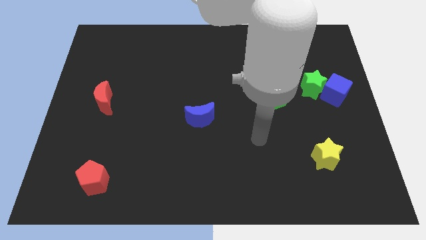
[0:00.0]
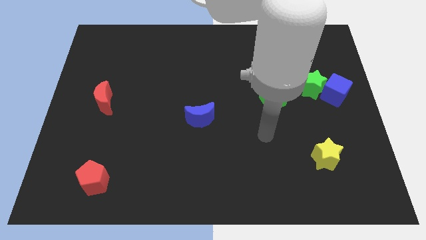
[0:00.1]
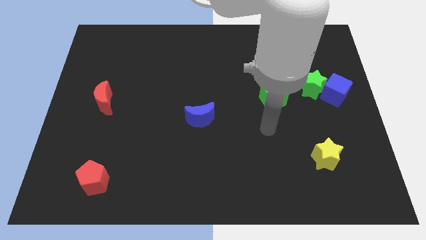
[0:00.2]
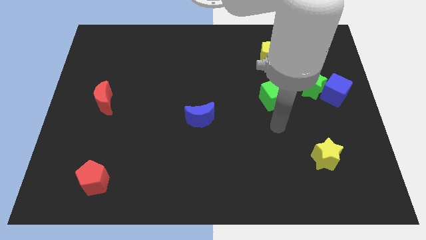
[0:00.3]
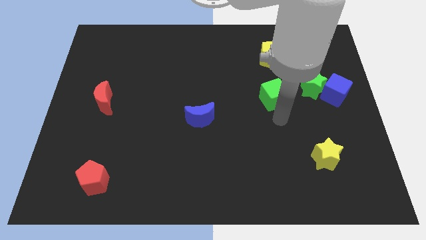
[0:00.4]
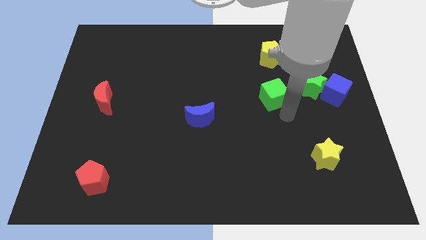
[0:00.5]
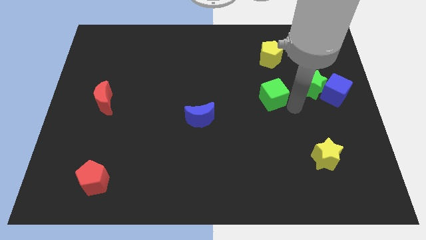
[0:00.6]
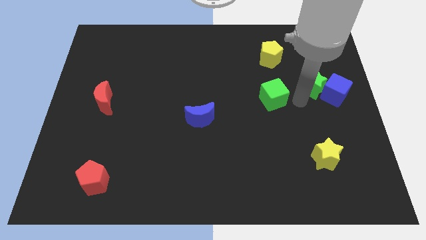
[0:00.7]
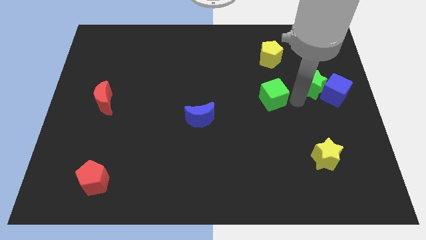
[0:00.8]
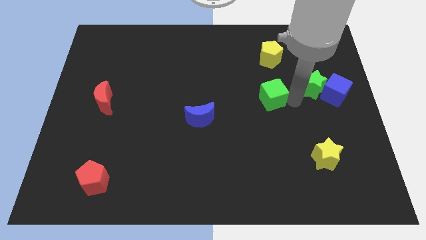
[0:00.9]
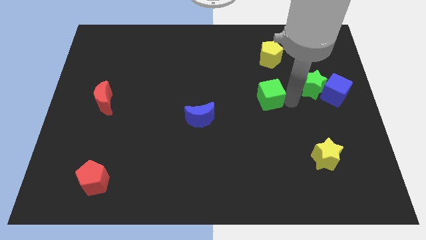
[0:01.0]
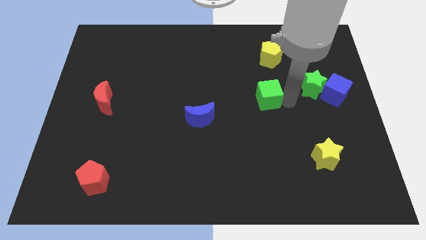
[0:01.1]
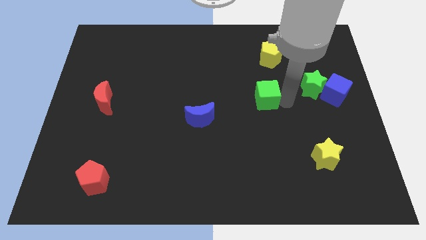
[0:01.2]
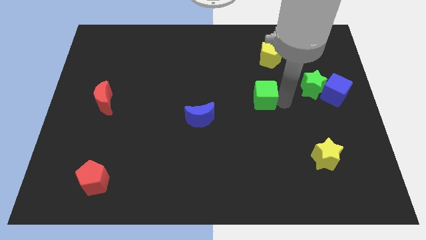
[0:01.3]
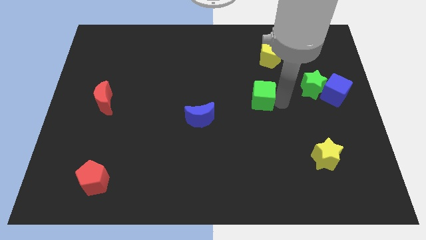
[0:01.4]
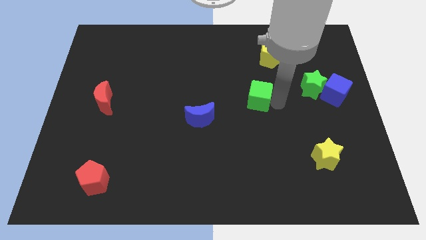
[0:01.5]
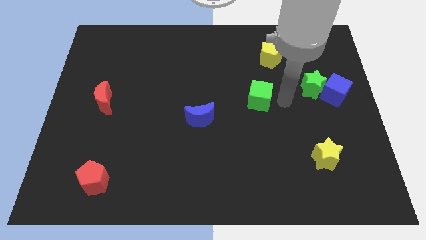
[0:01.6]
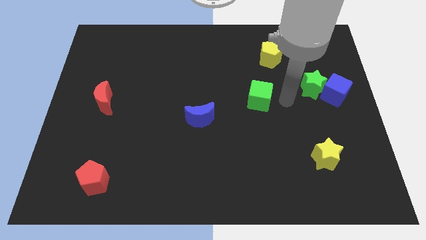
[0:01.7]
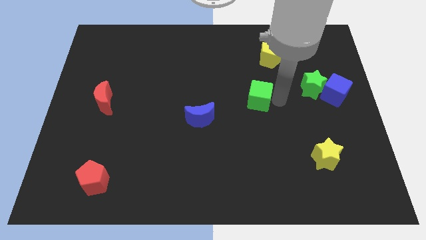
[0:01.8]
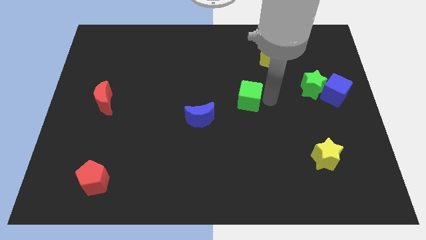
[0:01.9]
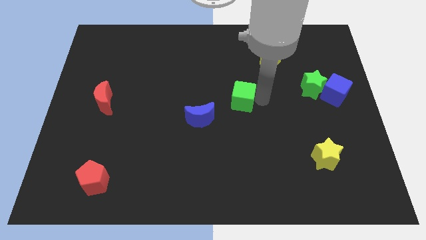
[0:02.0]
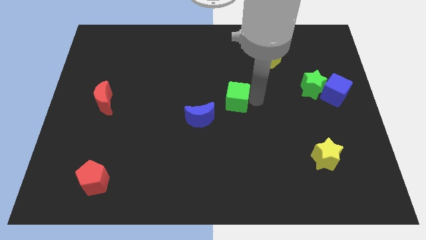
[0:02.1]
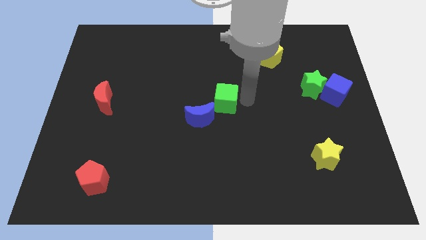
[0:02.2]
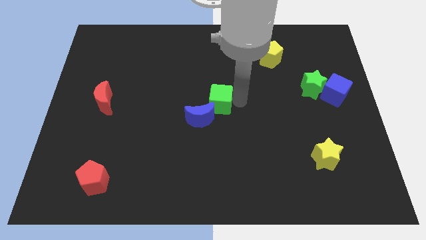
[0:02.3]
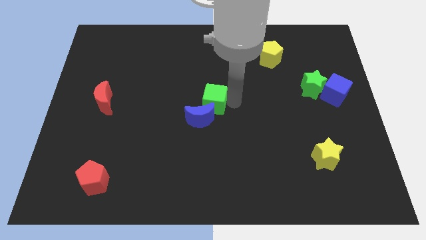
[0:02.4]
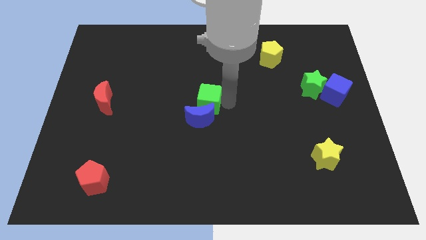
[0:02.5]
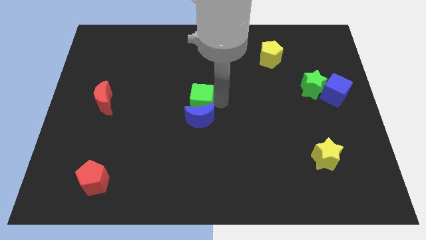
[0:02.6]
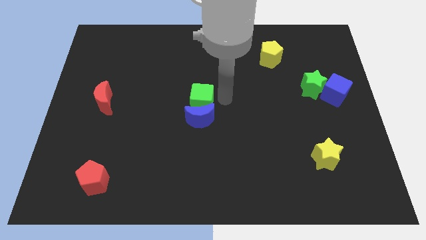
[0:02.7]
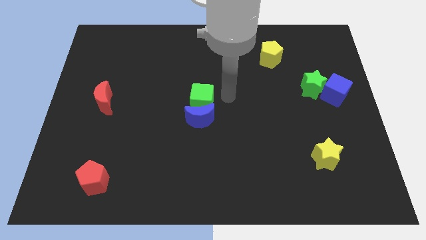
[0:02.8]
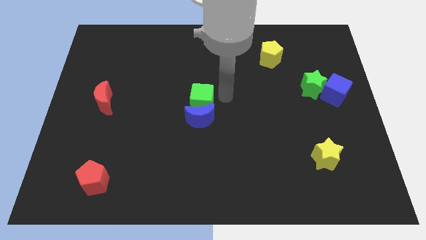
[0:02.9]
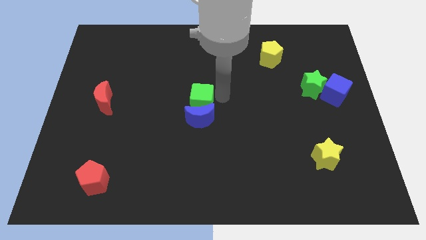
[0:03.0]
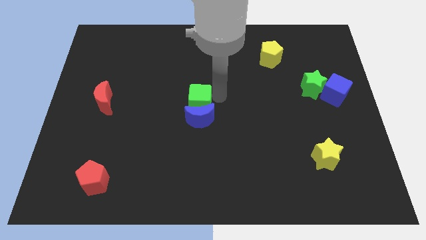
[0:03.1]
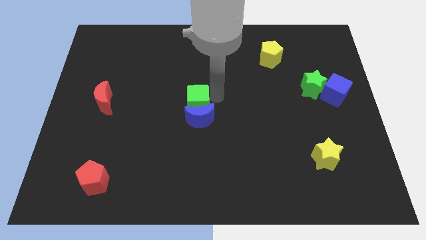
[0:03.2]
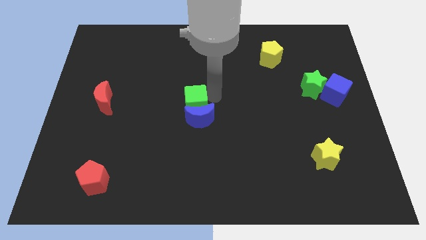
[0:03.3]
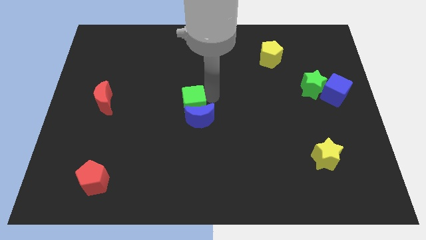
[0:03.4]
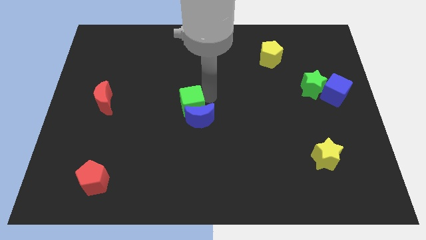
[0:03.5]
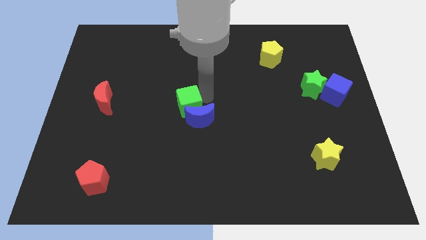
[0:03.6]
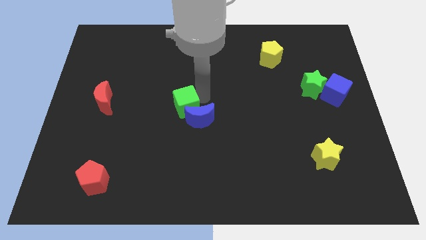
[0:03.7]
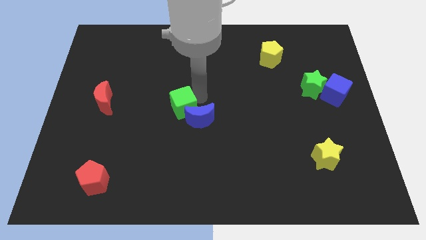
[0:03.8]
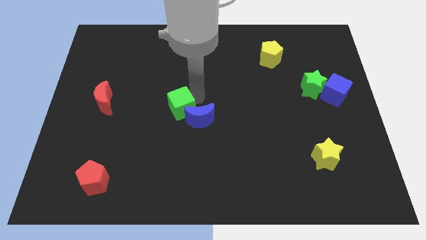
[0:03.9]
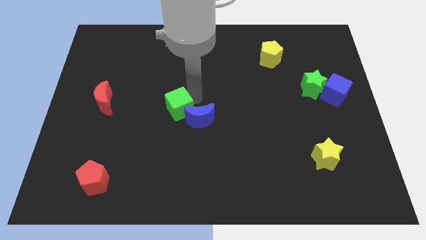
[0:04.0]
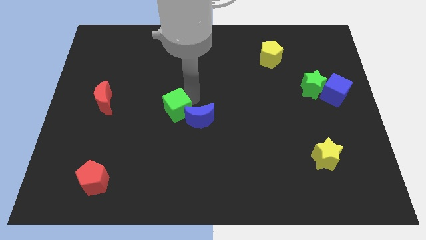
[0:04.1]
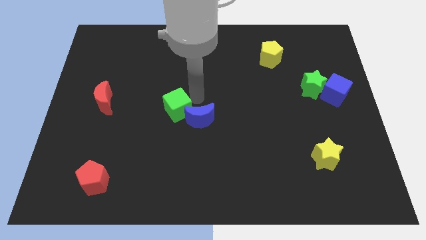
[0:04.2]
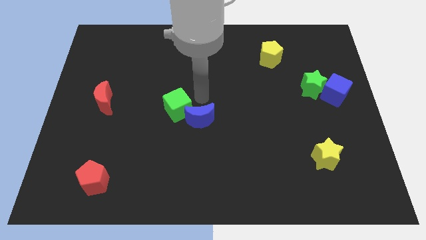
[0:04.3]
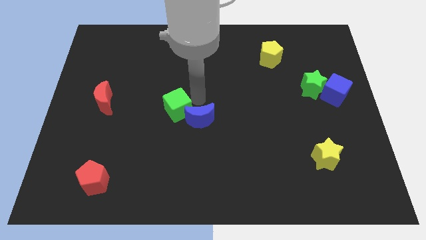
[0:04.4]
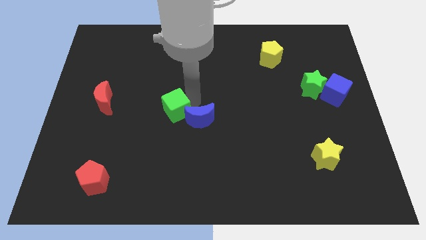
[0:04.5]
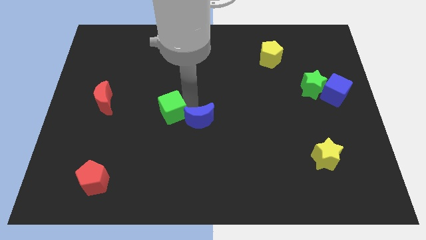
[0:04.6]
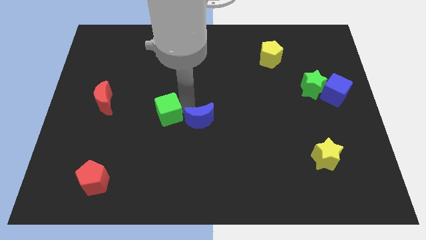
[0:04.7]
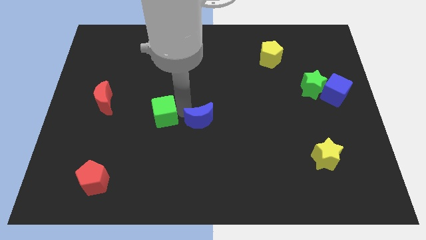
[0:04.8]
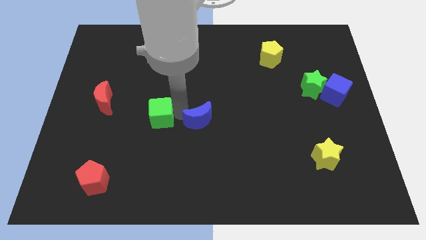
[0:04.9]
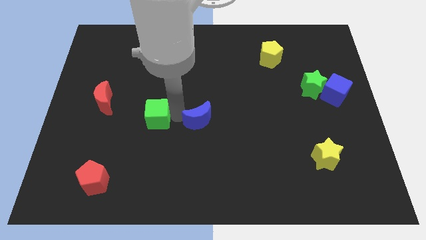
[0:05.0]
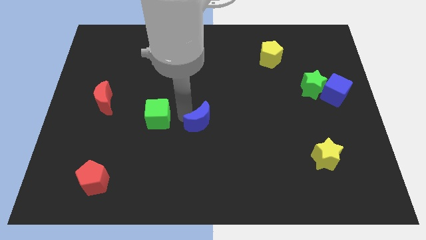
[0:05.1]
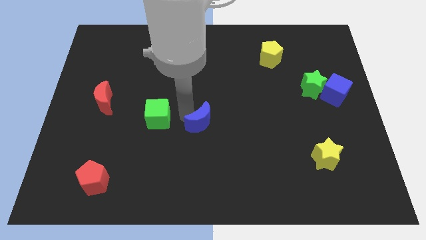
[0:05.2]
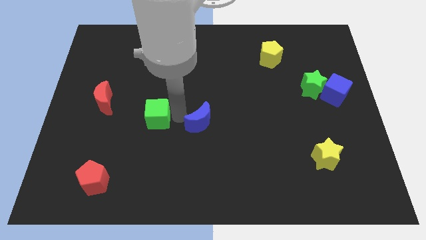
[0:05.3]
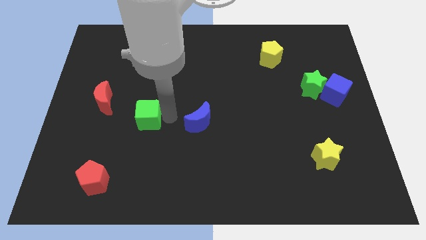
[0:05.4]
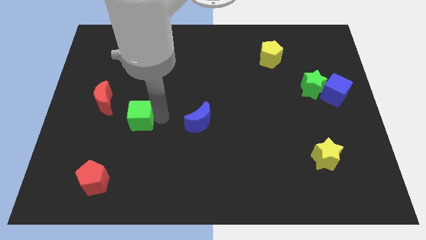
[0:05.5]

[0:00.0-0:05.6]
slide the green cube to the bottom right of the red moon

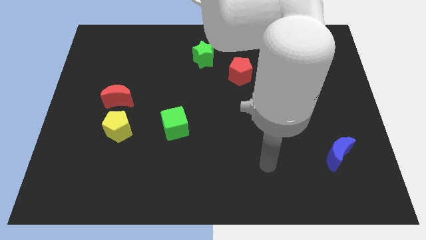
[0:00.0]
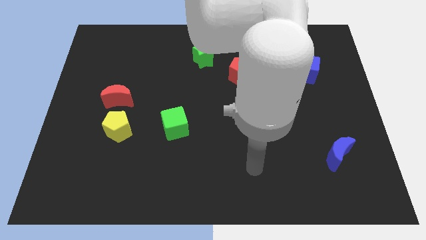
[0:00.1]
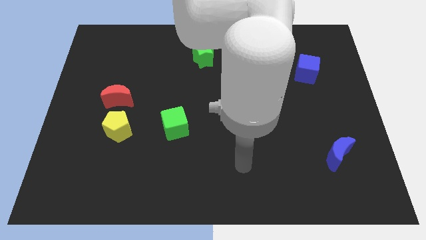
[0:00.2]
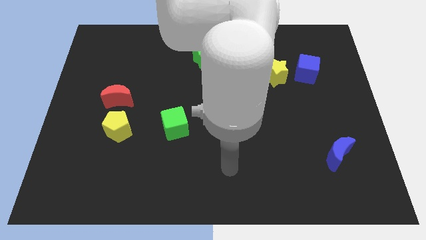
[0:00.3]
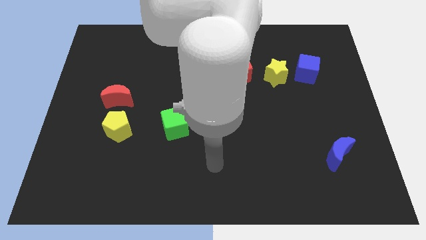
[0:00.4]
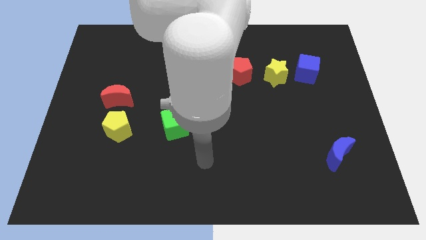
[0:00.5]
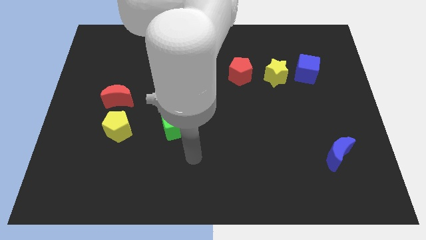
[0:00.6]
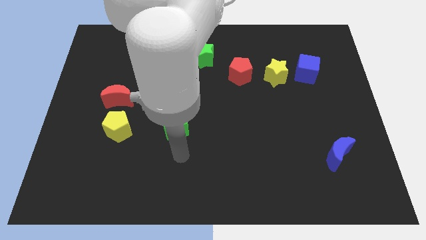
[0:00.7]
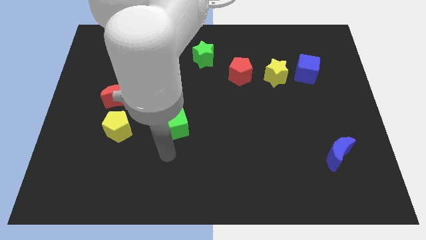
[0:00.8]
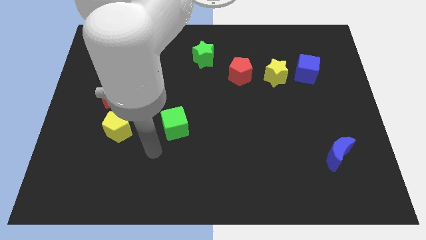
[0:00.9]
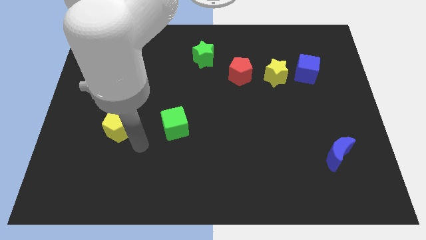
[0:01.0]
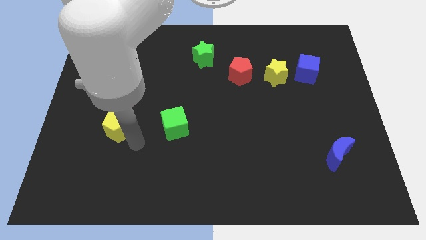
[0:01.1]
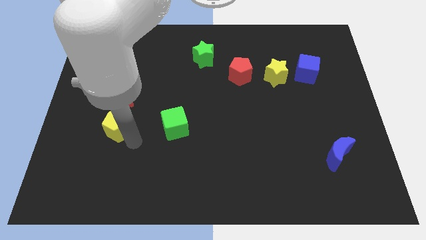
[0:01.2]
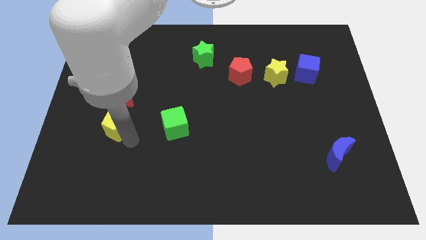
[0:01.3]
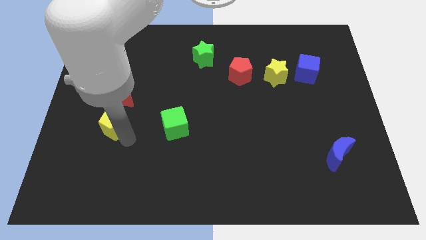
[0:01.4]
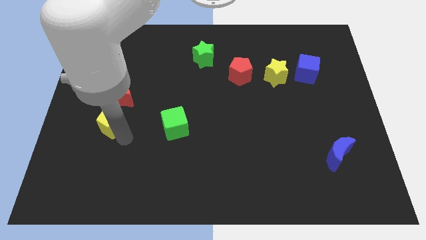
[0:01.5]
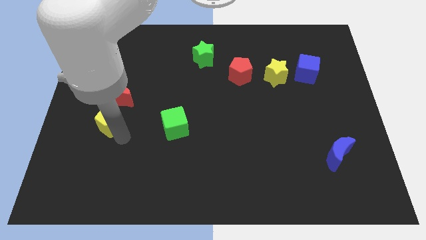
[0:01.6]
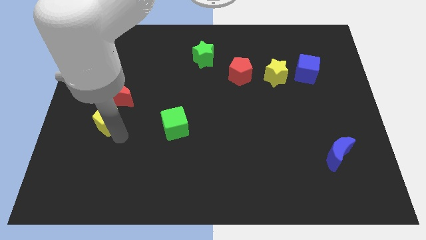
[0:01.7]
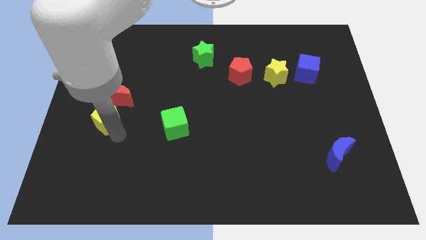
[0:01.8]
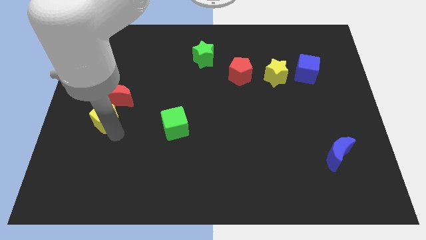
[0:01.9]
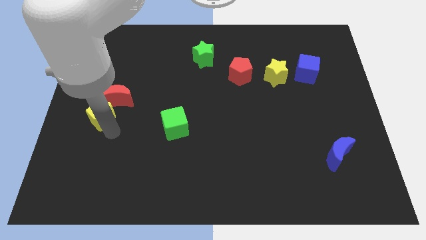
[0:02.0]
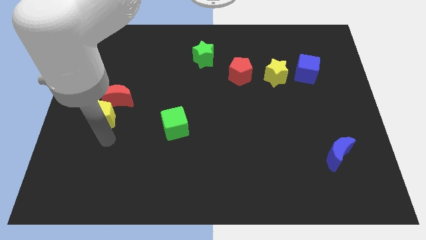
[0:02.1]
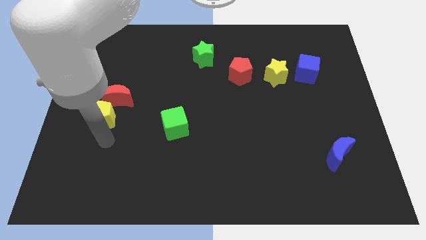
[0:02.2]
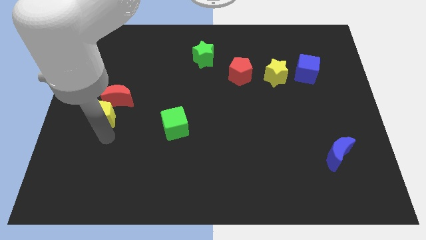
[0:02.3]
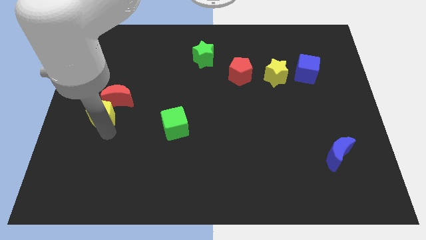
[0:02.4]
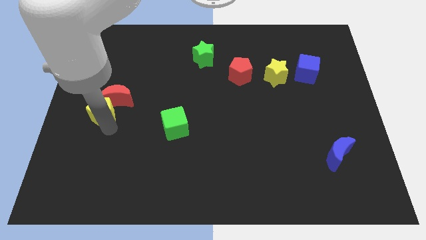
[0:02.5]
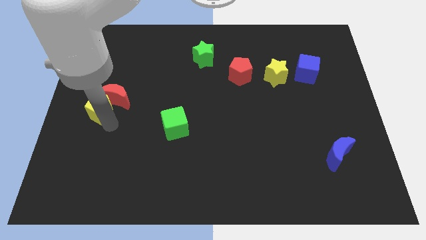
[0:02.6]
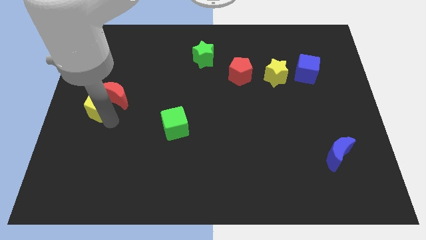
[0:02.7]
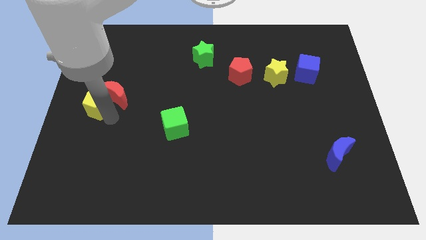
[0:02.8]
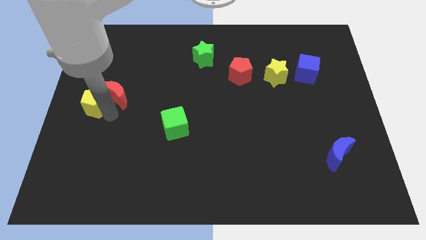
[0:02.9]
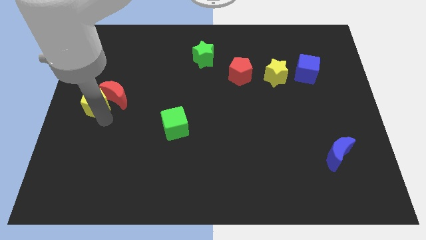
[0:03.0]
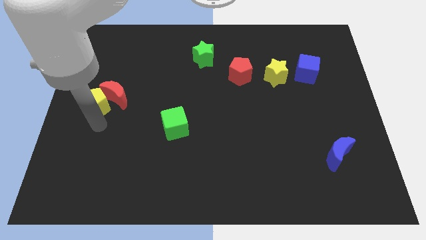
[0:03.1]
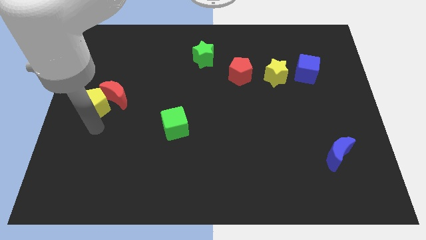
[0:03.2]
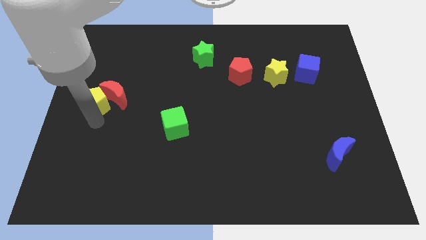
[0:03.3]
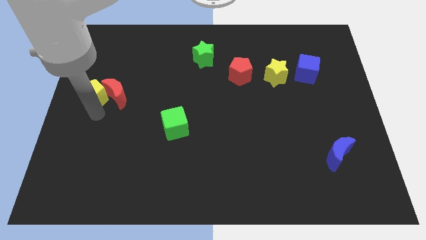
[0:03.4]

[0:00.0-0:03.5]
push the yellow pentagon to the top left side of the red moon
